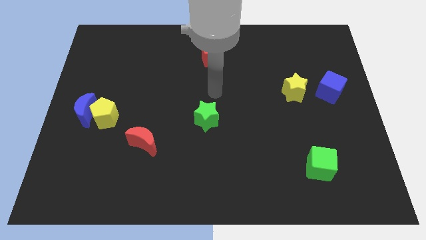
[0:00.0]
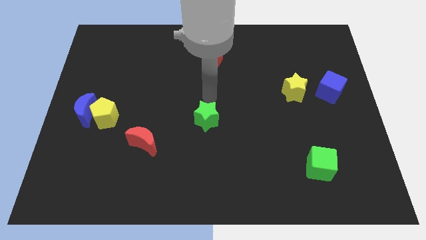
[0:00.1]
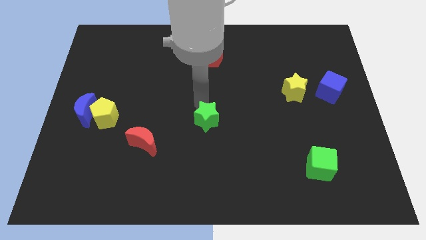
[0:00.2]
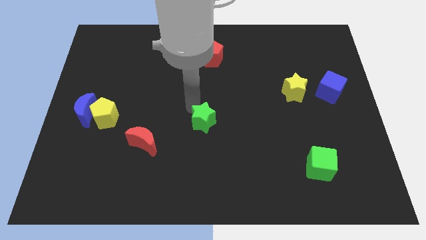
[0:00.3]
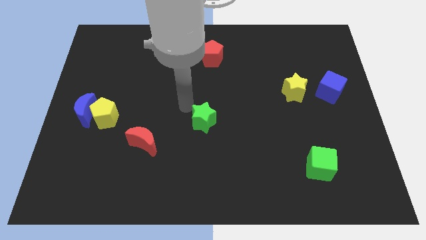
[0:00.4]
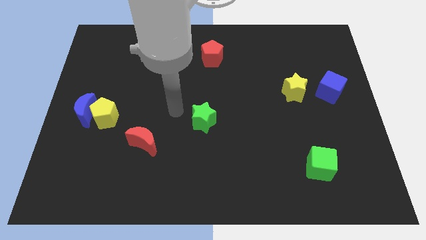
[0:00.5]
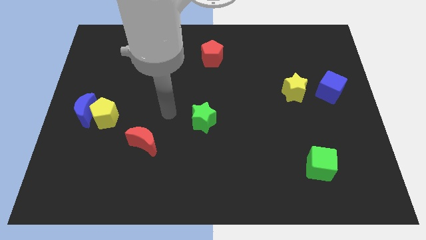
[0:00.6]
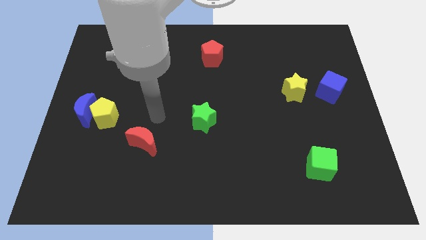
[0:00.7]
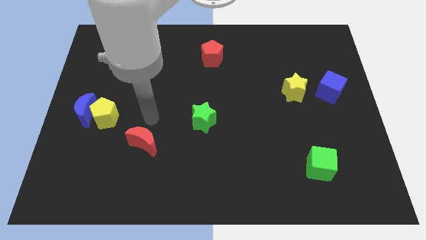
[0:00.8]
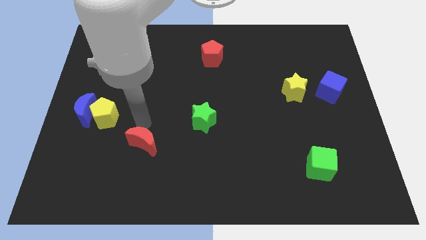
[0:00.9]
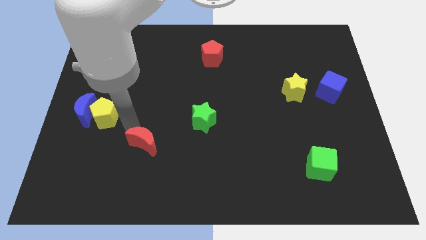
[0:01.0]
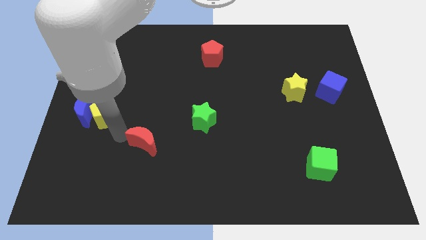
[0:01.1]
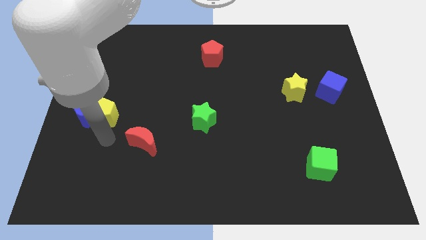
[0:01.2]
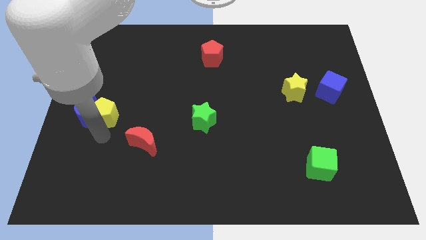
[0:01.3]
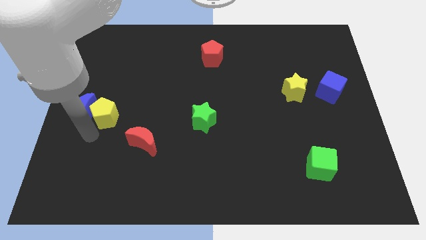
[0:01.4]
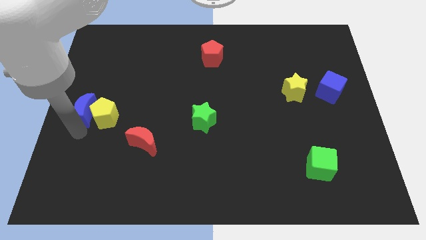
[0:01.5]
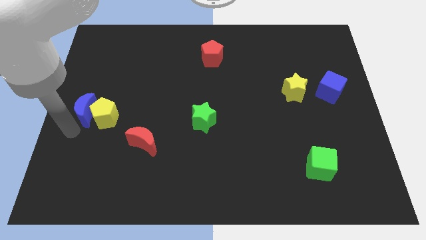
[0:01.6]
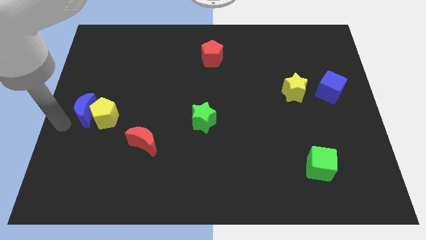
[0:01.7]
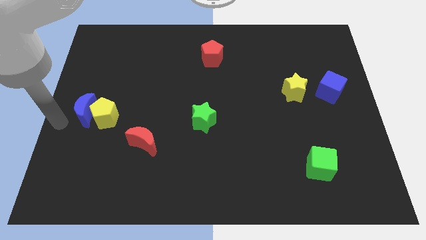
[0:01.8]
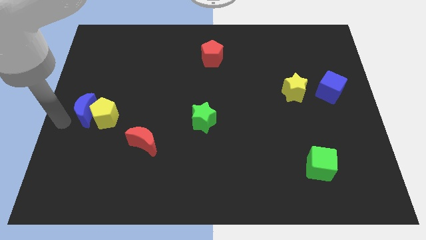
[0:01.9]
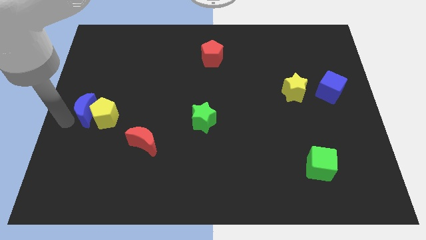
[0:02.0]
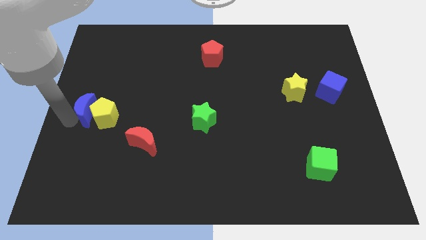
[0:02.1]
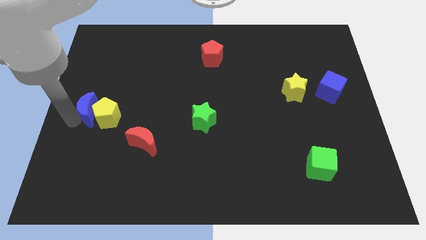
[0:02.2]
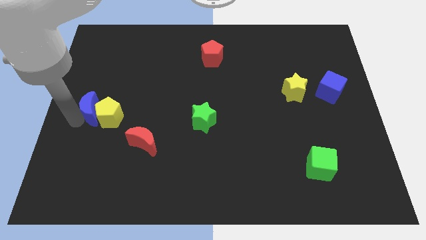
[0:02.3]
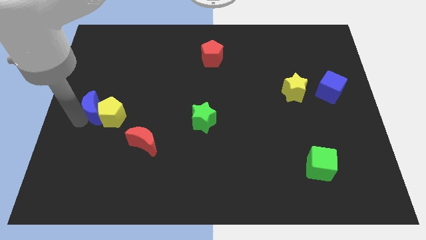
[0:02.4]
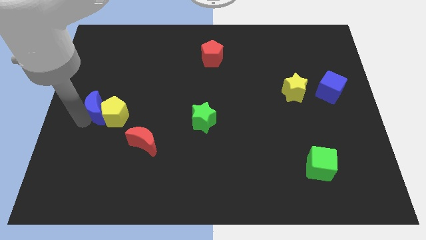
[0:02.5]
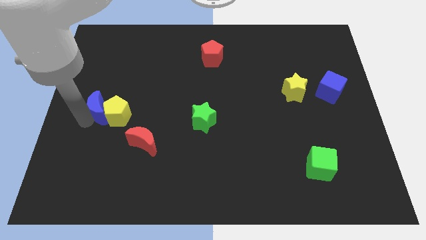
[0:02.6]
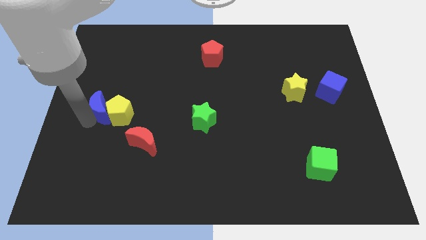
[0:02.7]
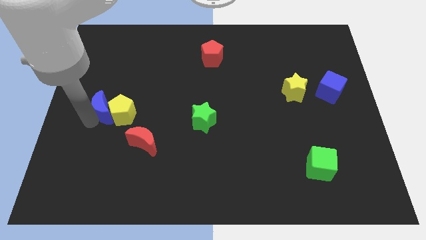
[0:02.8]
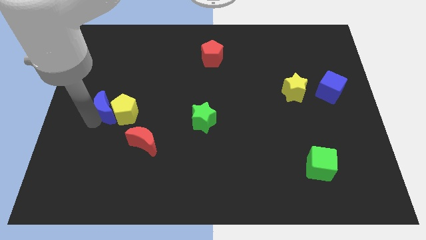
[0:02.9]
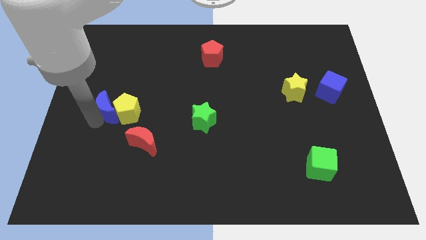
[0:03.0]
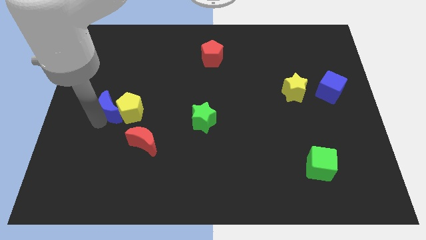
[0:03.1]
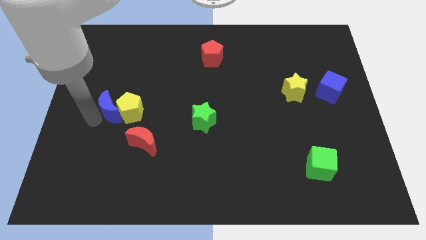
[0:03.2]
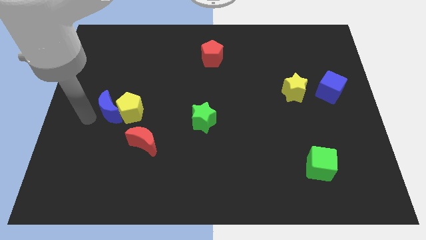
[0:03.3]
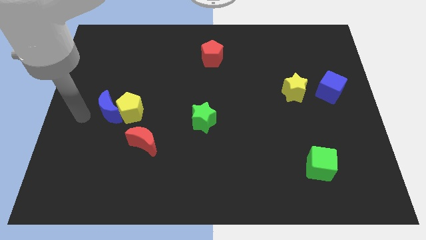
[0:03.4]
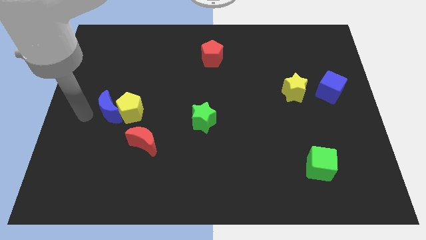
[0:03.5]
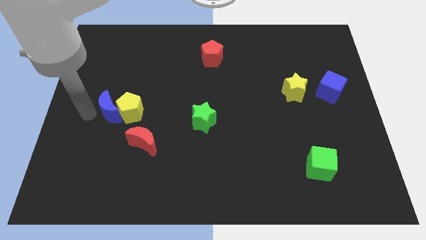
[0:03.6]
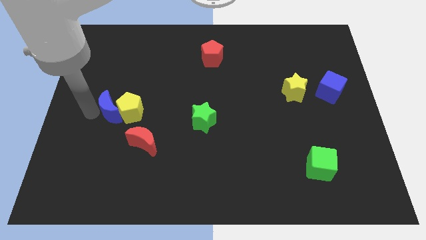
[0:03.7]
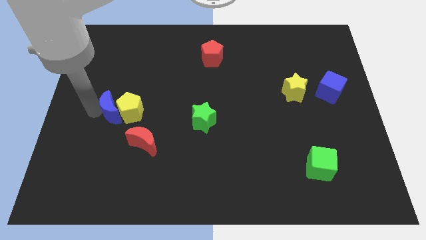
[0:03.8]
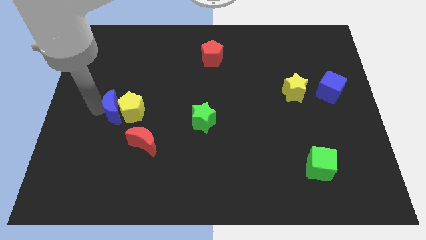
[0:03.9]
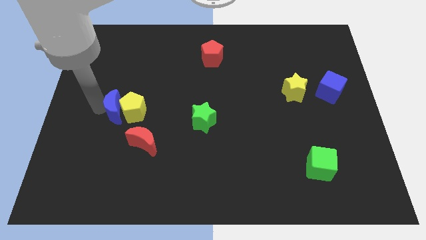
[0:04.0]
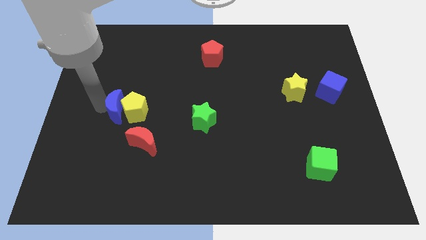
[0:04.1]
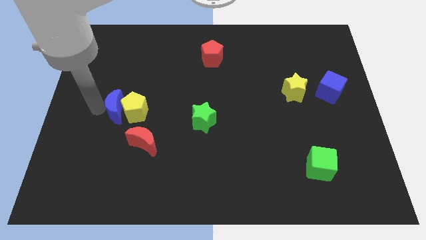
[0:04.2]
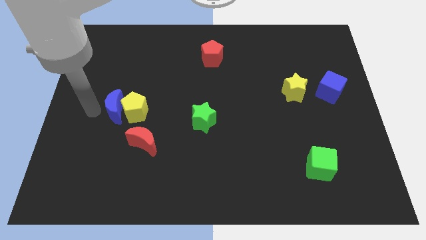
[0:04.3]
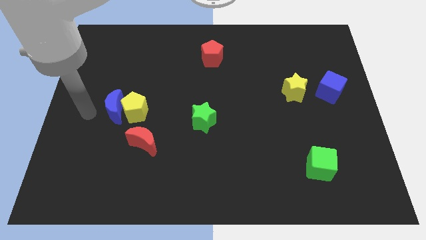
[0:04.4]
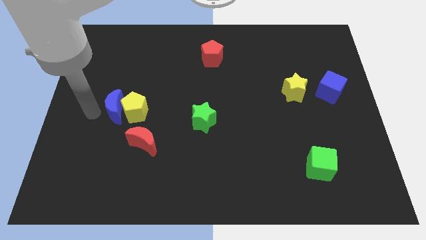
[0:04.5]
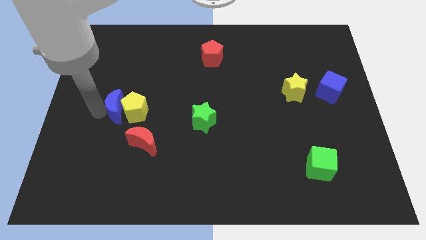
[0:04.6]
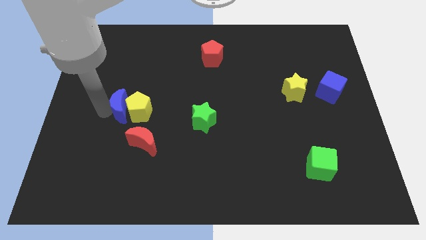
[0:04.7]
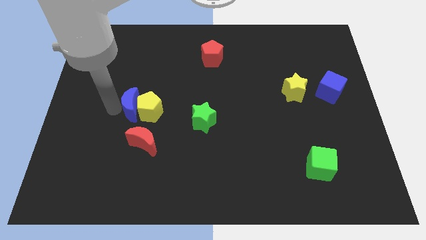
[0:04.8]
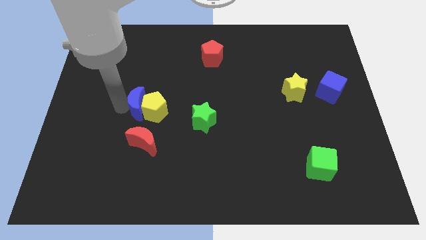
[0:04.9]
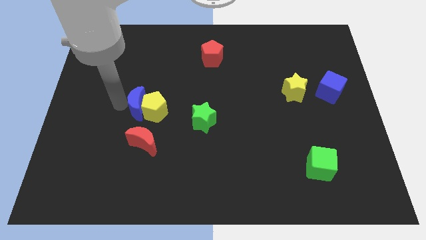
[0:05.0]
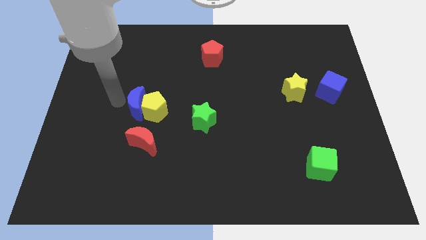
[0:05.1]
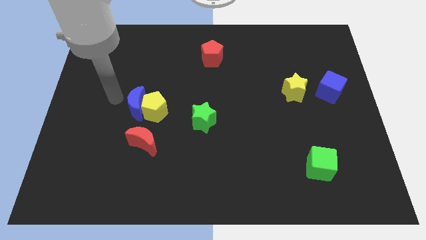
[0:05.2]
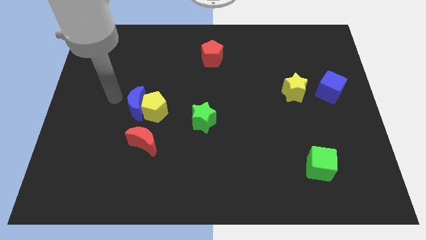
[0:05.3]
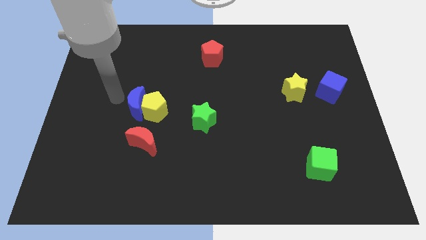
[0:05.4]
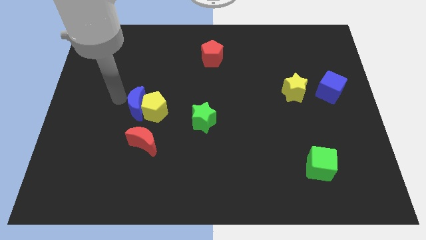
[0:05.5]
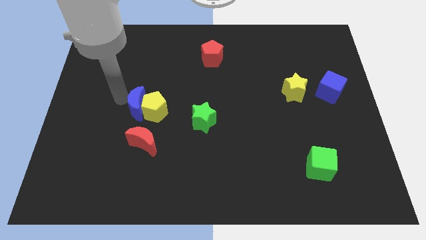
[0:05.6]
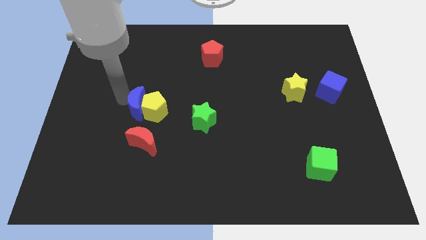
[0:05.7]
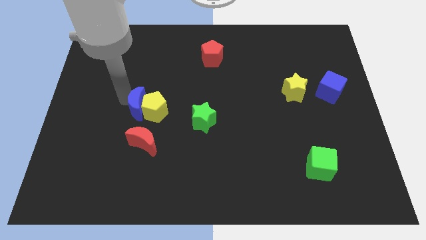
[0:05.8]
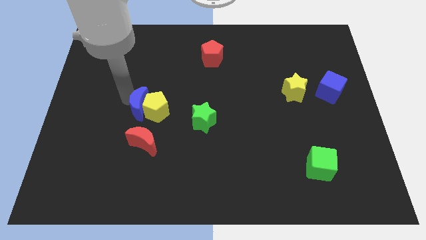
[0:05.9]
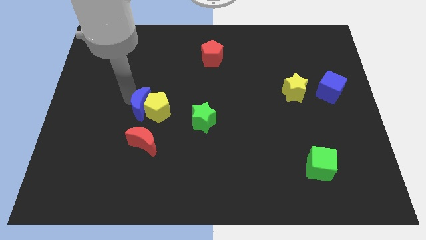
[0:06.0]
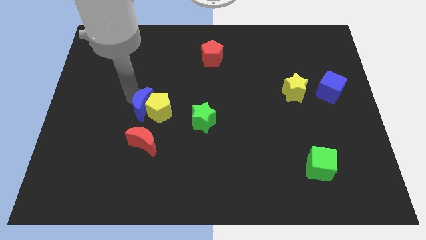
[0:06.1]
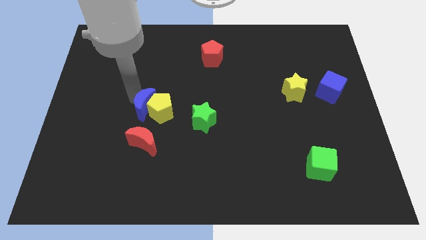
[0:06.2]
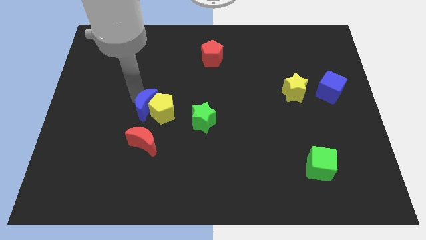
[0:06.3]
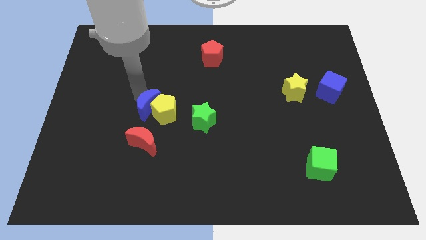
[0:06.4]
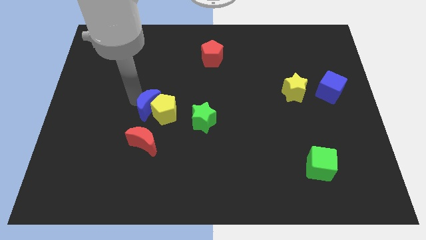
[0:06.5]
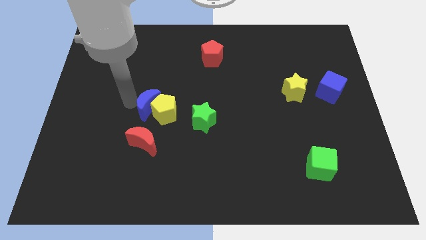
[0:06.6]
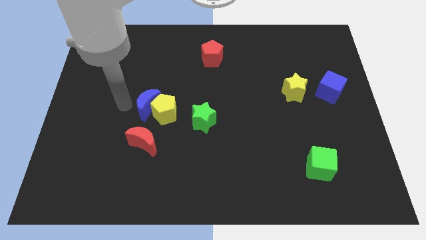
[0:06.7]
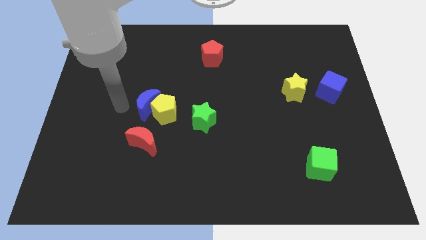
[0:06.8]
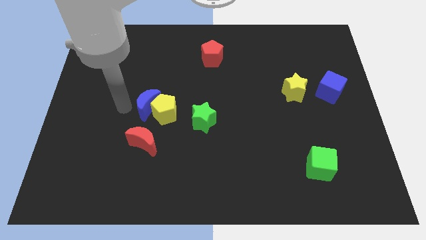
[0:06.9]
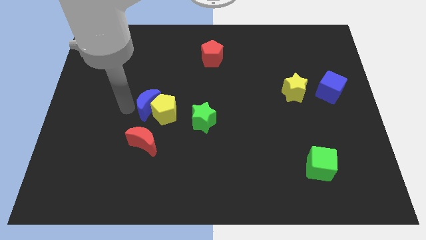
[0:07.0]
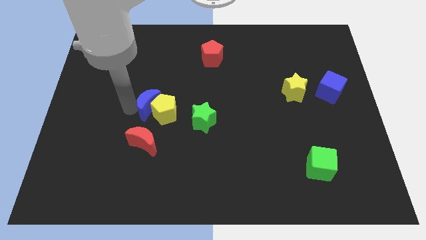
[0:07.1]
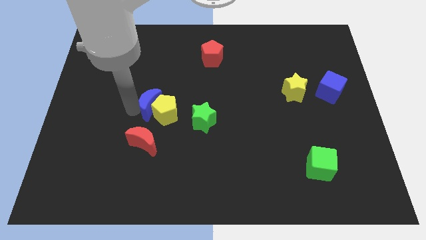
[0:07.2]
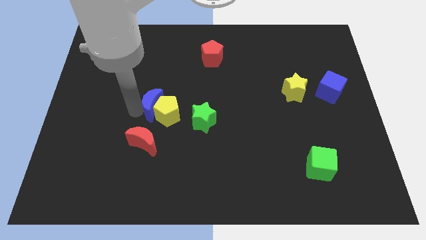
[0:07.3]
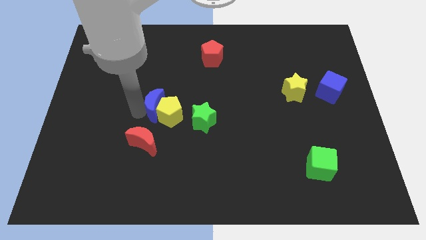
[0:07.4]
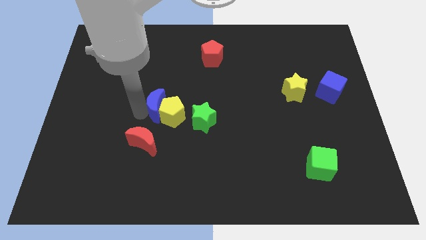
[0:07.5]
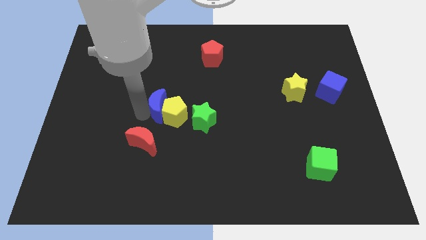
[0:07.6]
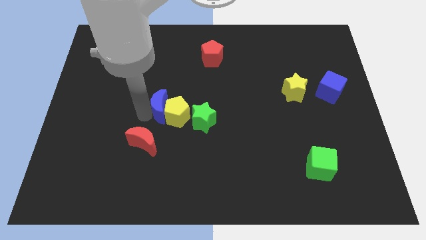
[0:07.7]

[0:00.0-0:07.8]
move the blue moon to the center
